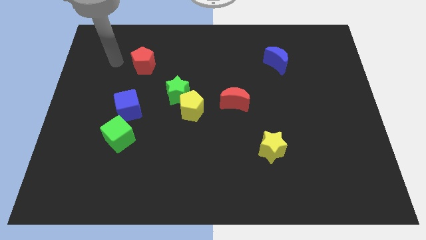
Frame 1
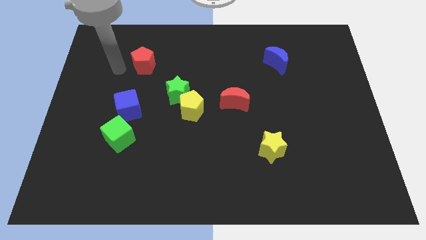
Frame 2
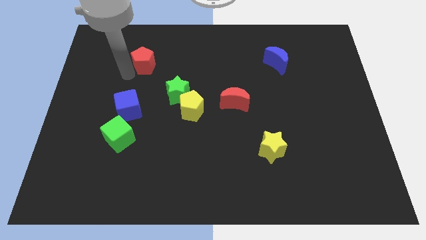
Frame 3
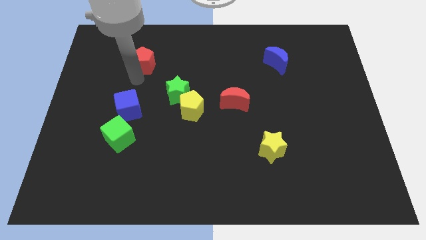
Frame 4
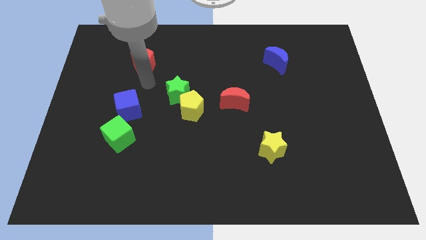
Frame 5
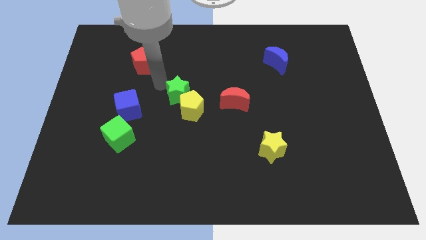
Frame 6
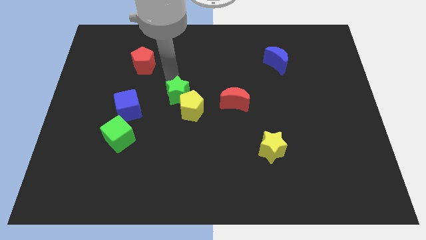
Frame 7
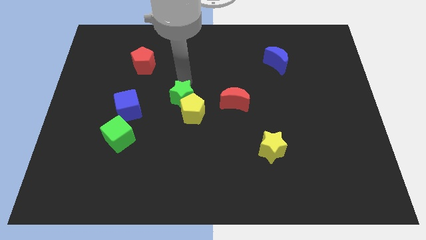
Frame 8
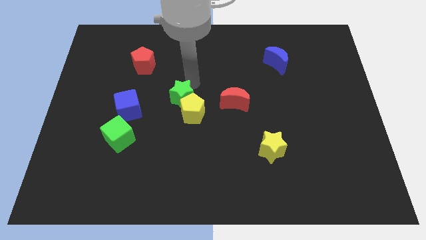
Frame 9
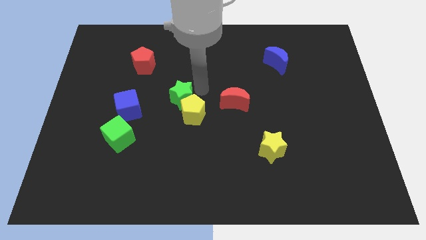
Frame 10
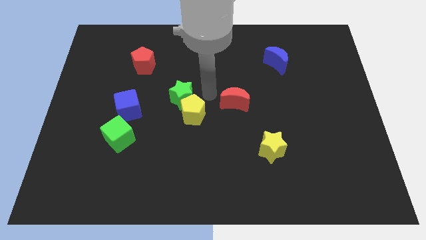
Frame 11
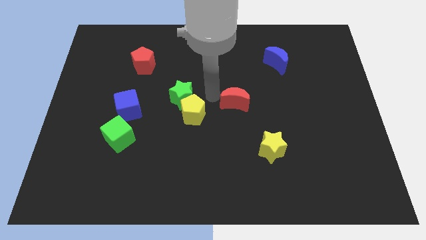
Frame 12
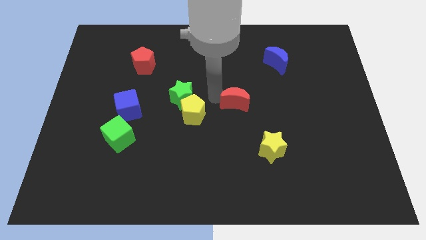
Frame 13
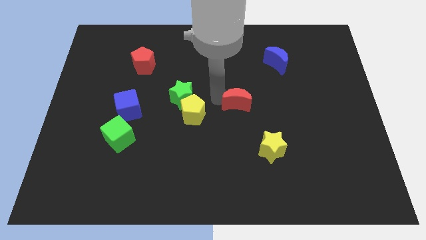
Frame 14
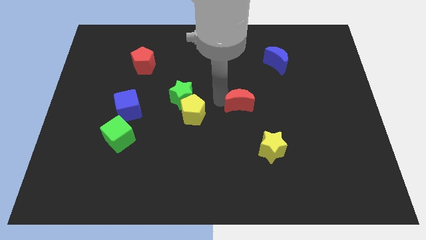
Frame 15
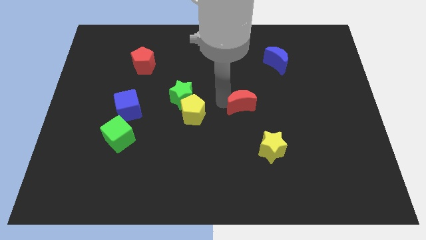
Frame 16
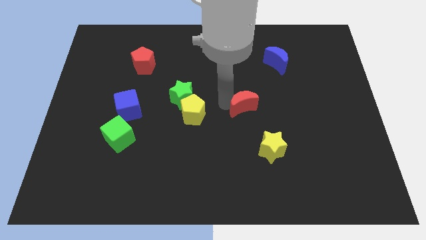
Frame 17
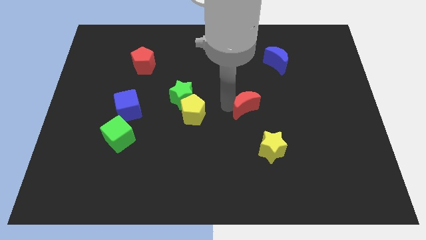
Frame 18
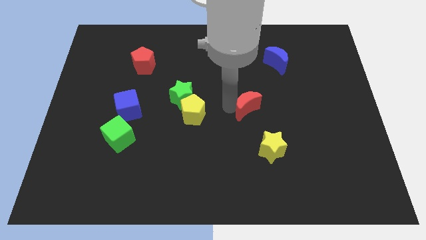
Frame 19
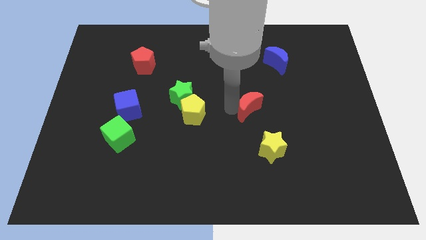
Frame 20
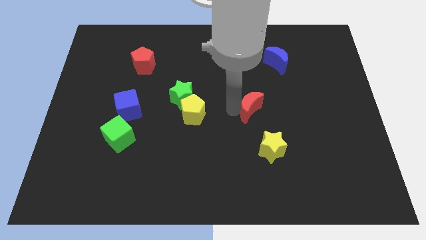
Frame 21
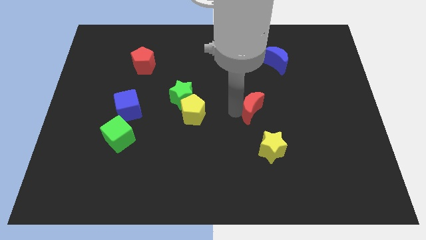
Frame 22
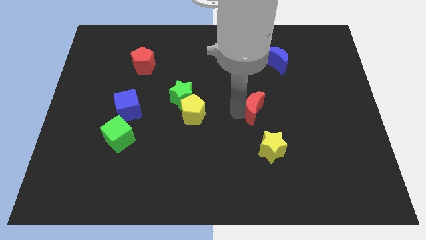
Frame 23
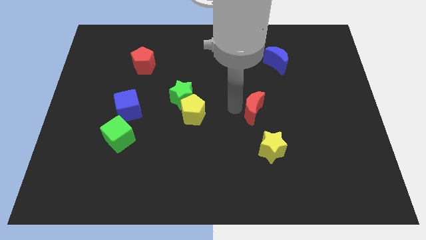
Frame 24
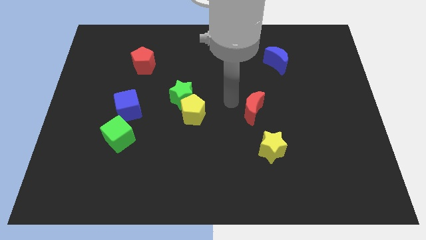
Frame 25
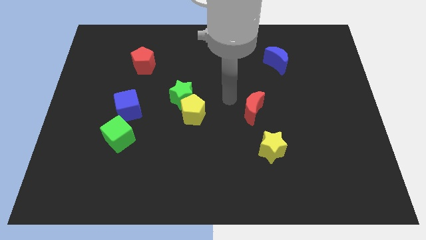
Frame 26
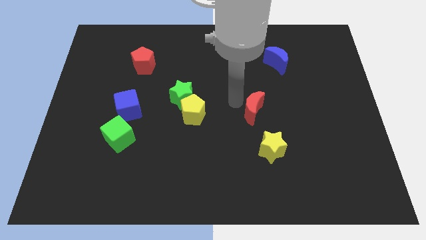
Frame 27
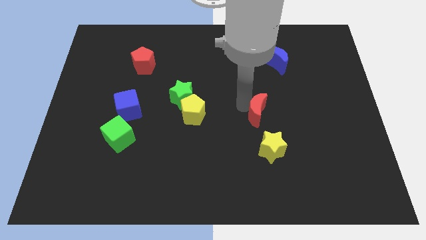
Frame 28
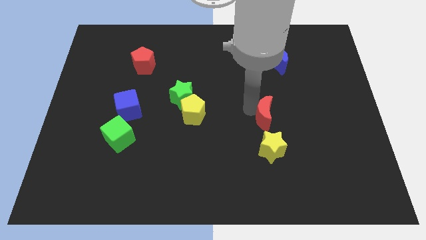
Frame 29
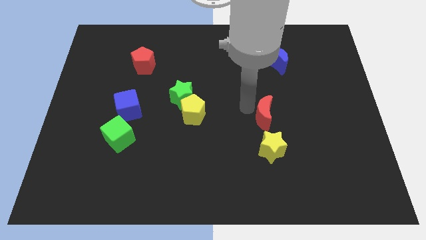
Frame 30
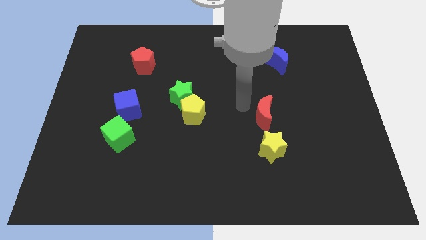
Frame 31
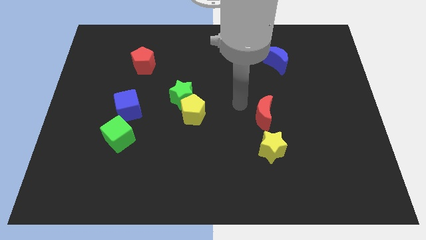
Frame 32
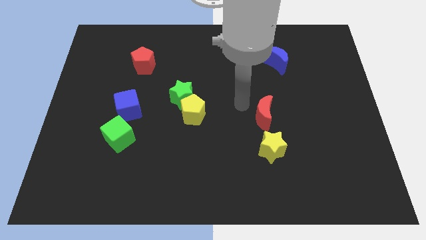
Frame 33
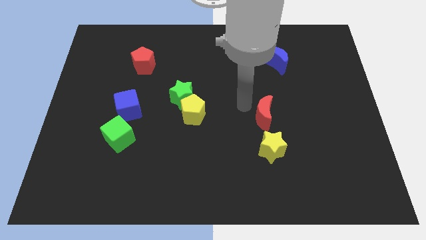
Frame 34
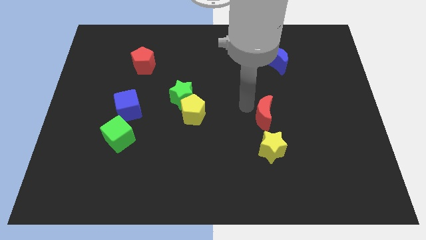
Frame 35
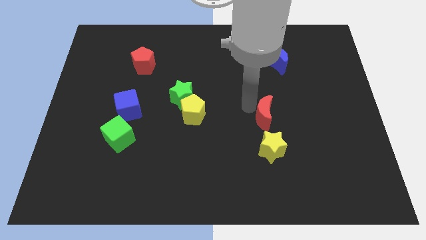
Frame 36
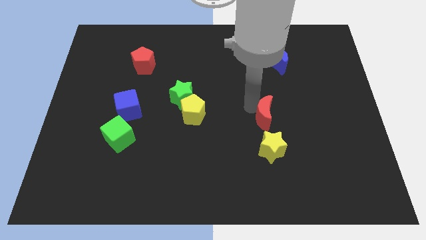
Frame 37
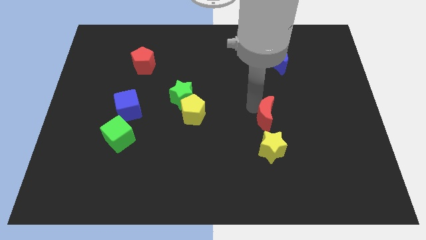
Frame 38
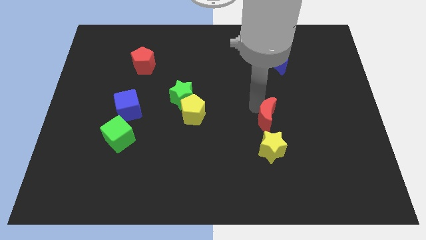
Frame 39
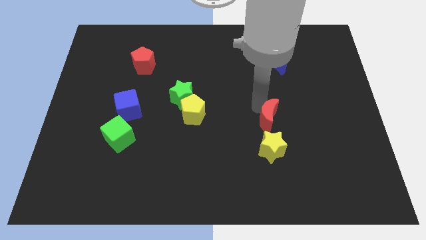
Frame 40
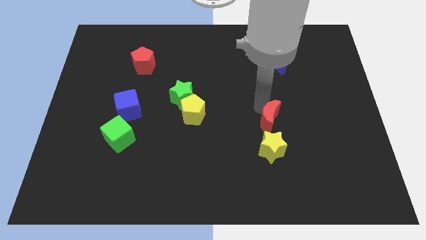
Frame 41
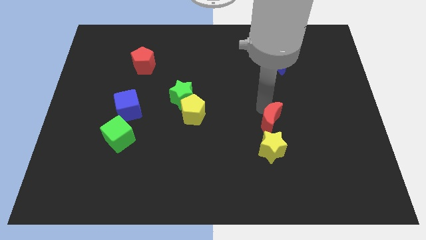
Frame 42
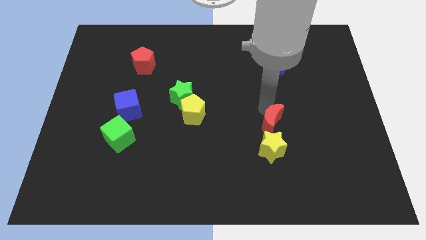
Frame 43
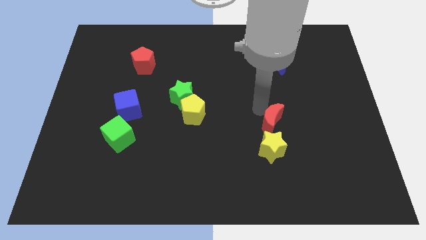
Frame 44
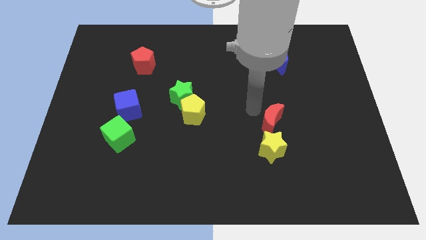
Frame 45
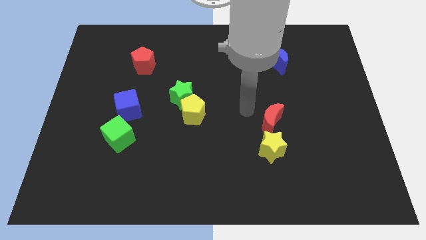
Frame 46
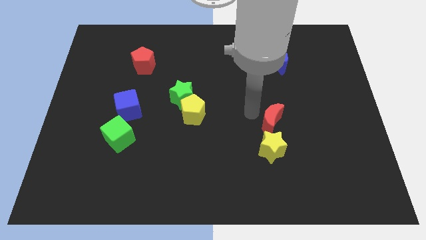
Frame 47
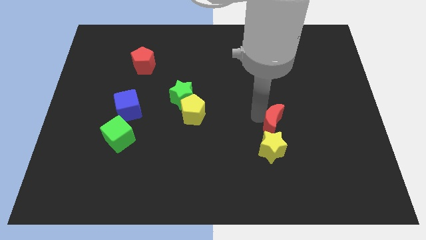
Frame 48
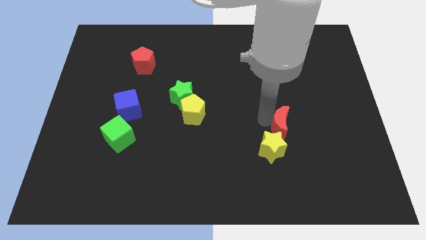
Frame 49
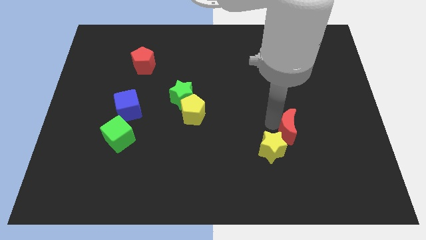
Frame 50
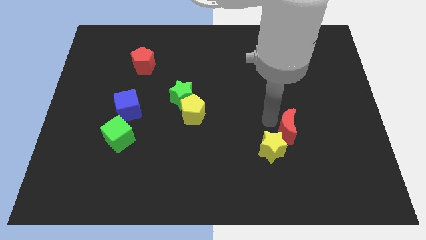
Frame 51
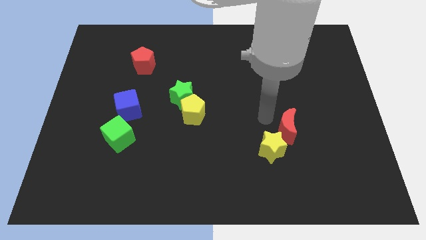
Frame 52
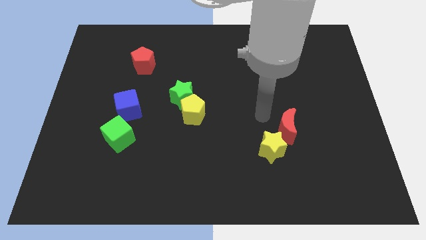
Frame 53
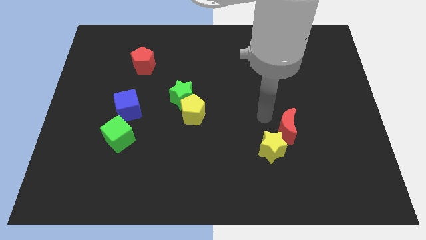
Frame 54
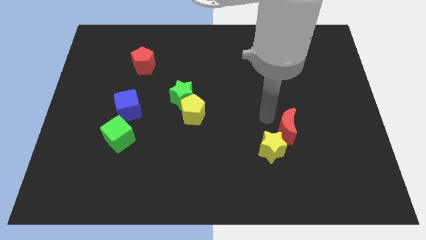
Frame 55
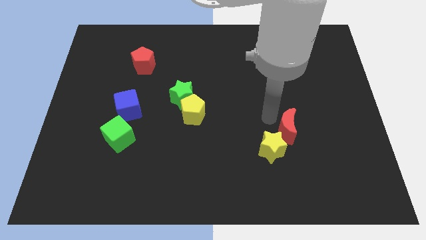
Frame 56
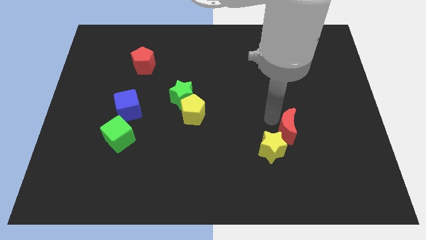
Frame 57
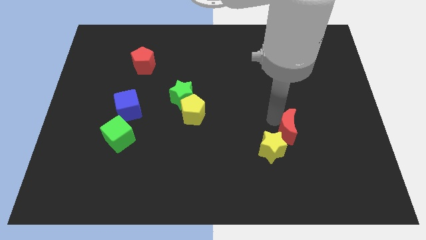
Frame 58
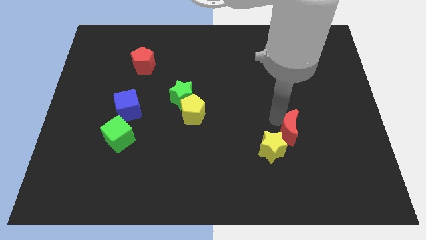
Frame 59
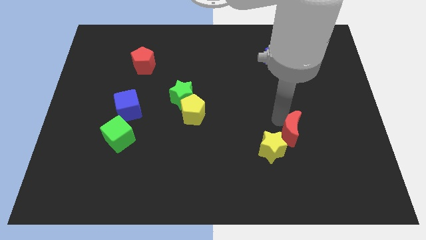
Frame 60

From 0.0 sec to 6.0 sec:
move the red moon to the right of the yellow star
